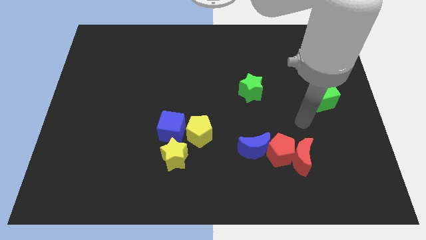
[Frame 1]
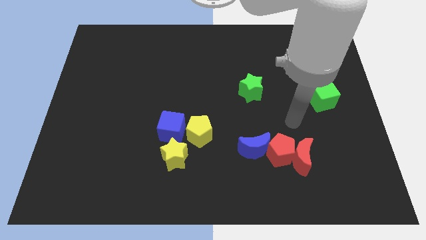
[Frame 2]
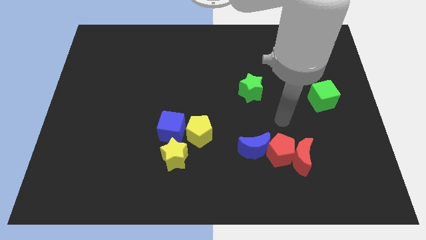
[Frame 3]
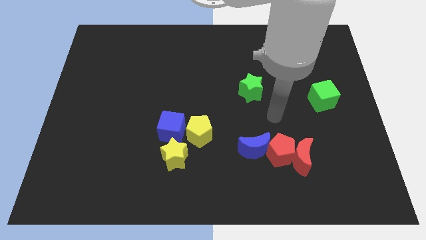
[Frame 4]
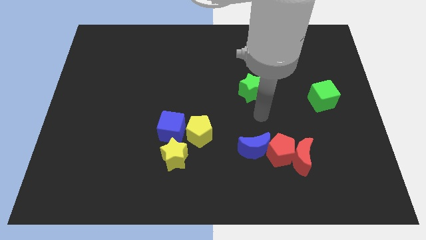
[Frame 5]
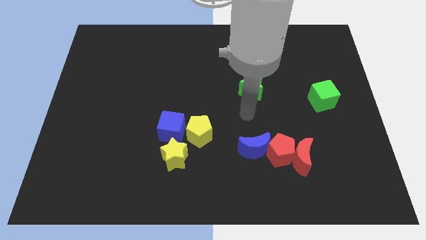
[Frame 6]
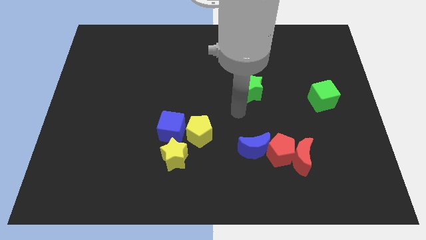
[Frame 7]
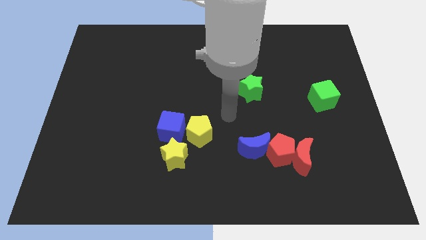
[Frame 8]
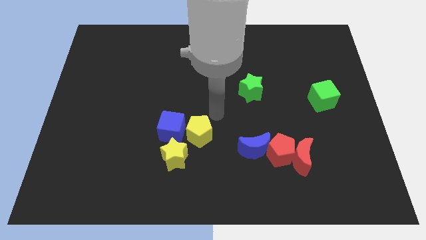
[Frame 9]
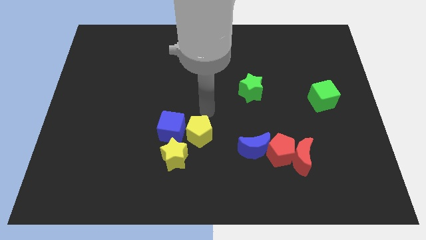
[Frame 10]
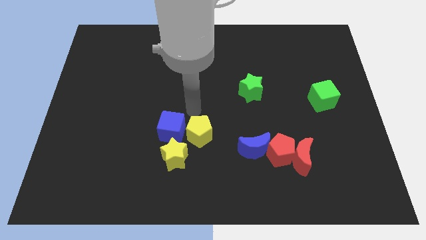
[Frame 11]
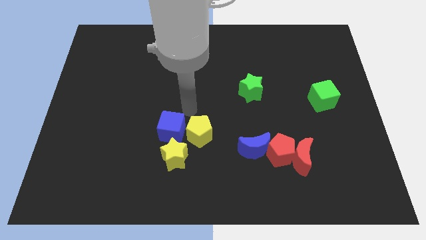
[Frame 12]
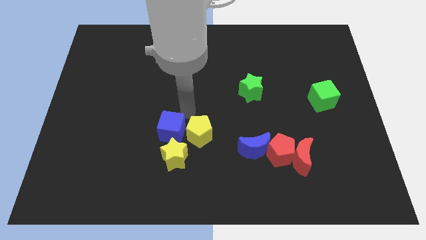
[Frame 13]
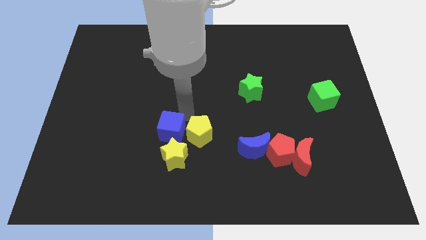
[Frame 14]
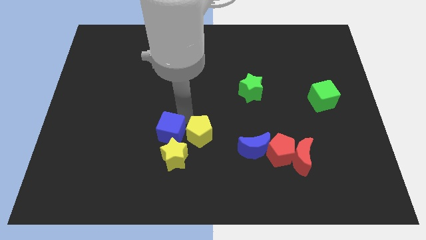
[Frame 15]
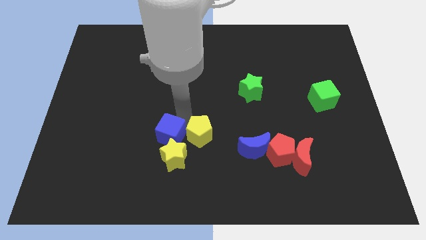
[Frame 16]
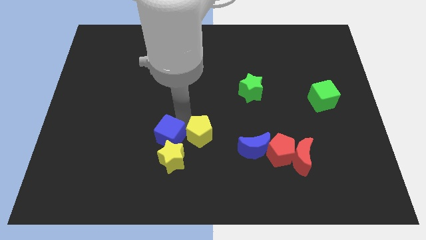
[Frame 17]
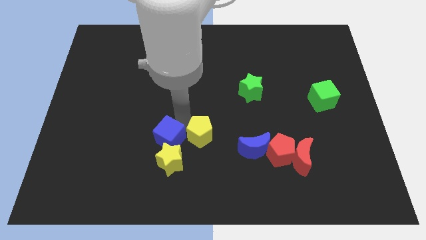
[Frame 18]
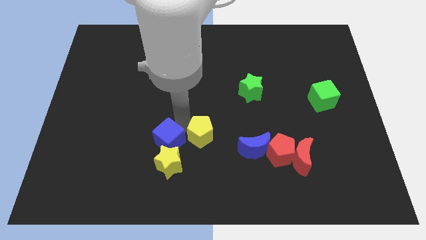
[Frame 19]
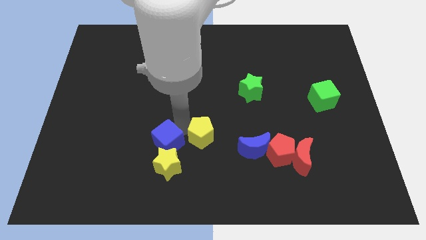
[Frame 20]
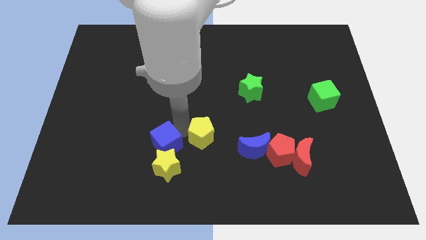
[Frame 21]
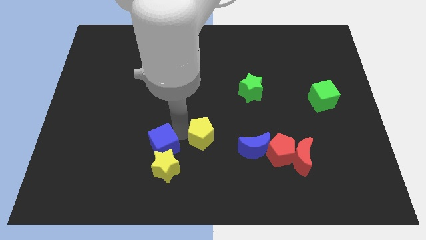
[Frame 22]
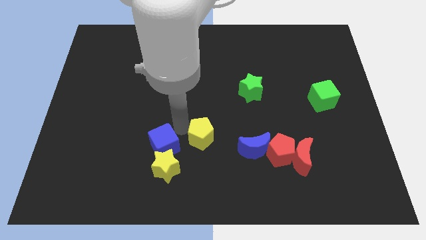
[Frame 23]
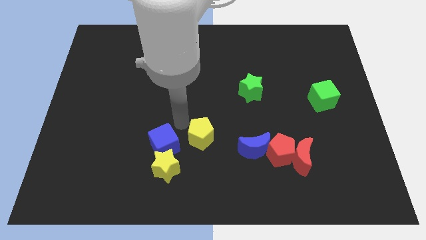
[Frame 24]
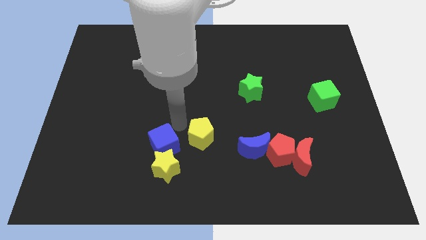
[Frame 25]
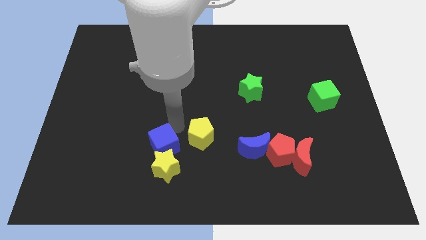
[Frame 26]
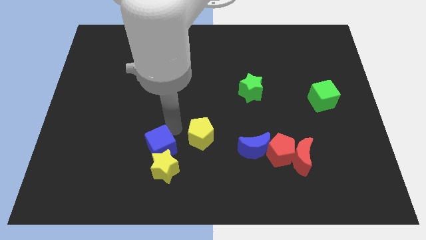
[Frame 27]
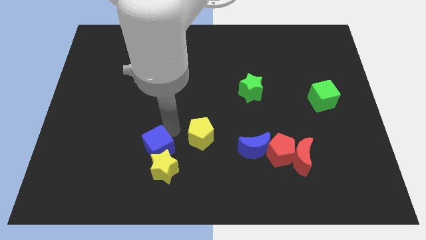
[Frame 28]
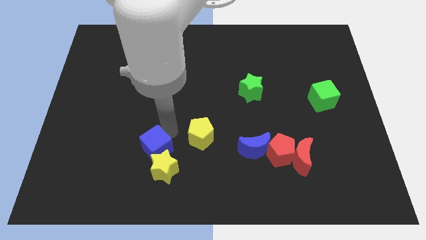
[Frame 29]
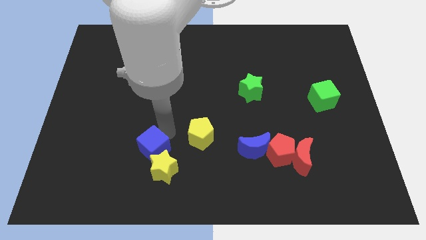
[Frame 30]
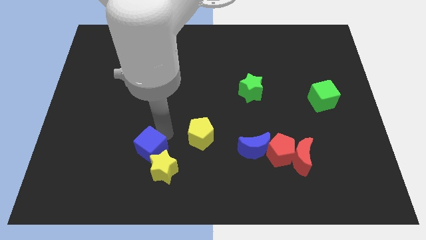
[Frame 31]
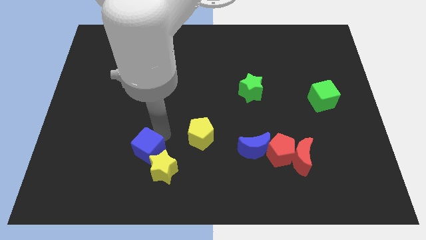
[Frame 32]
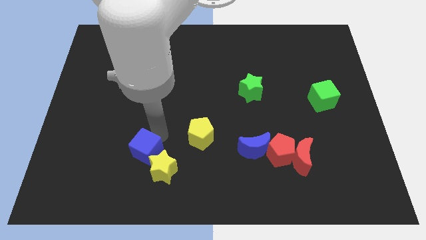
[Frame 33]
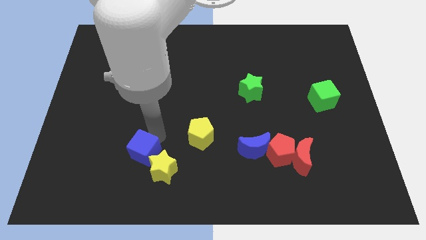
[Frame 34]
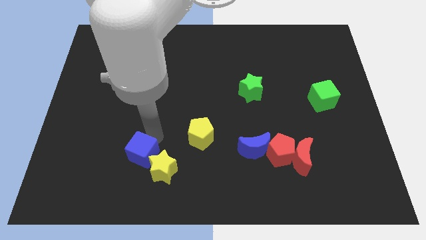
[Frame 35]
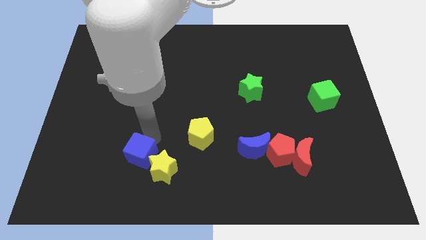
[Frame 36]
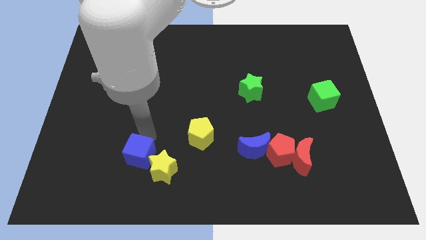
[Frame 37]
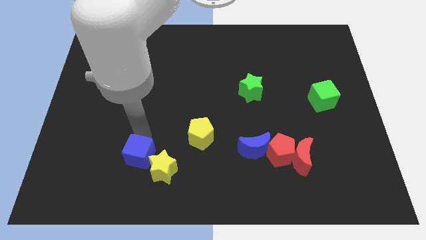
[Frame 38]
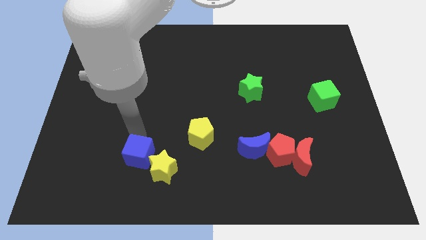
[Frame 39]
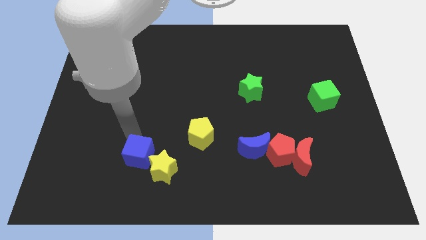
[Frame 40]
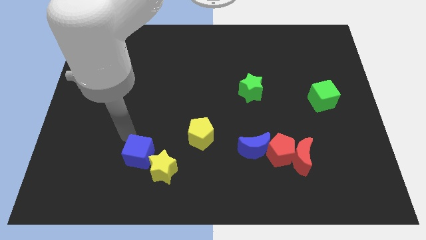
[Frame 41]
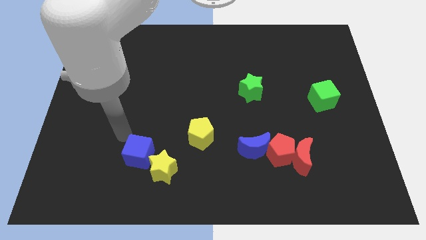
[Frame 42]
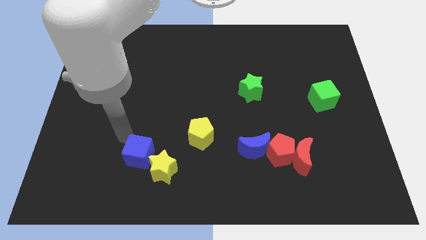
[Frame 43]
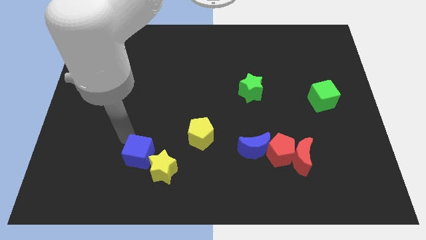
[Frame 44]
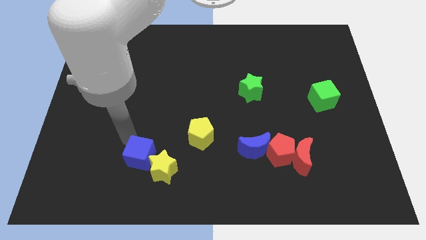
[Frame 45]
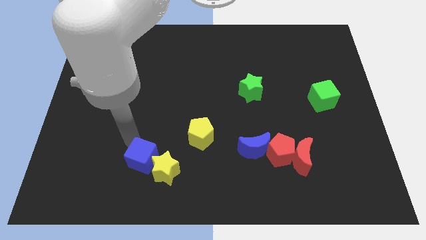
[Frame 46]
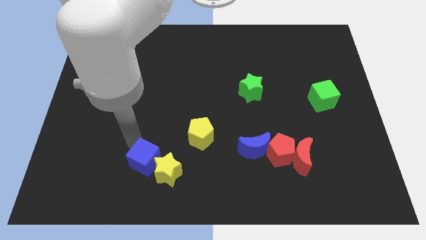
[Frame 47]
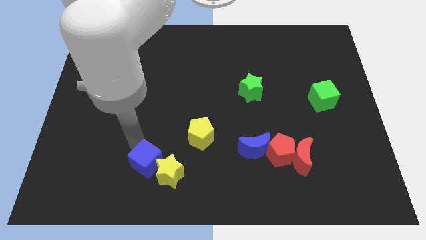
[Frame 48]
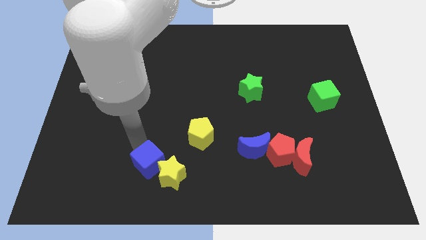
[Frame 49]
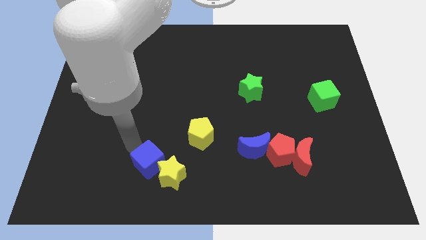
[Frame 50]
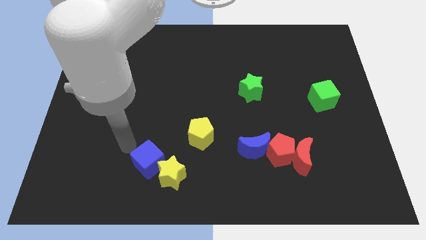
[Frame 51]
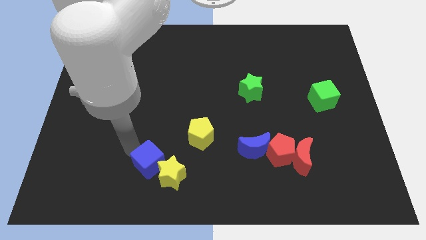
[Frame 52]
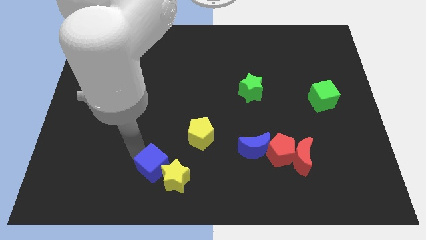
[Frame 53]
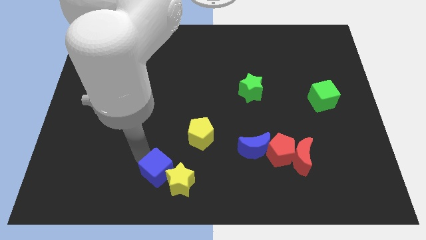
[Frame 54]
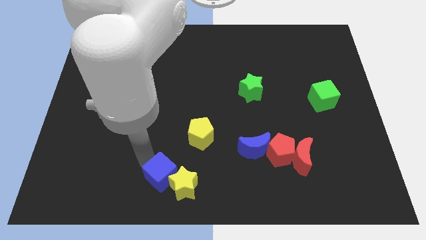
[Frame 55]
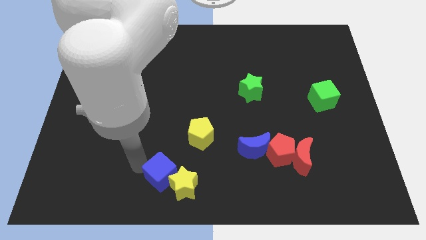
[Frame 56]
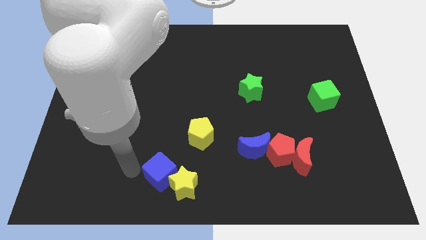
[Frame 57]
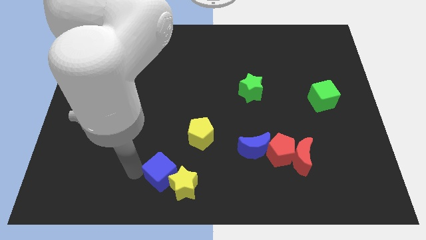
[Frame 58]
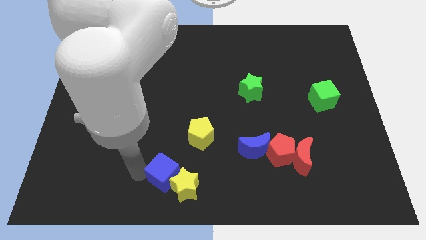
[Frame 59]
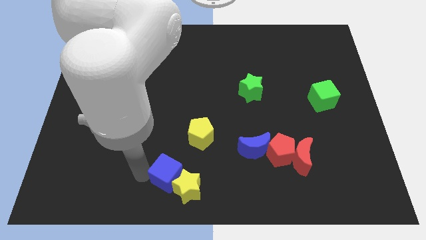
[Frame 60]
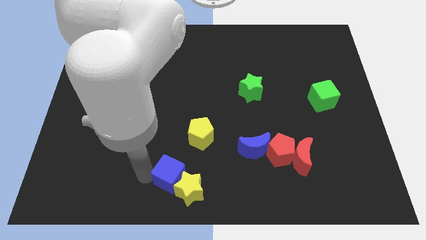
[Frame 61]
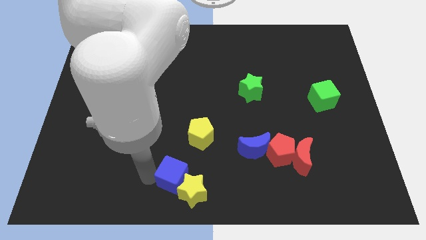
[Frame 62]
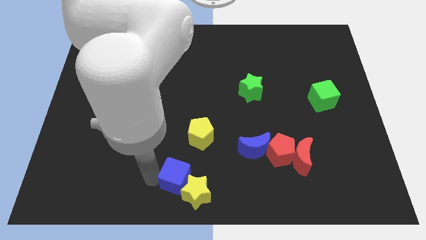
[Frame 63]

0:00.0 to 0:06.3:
move the blue cube to the bottom side of the yellow pentagon

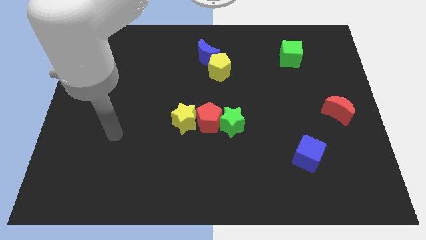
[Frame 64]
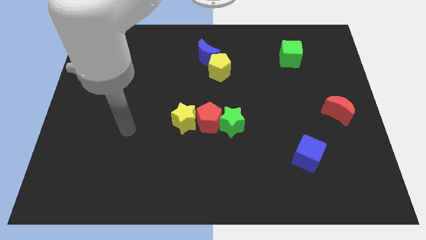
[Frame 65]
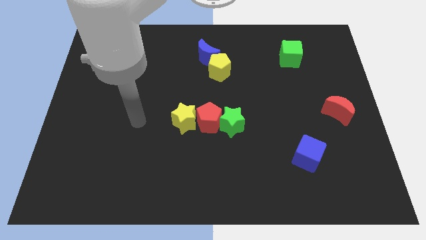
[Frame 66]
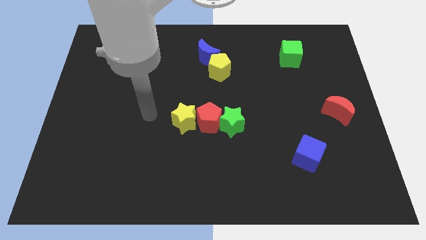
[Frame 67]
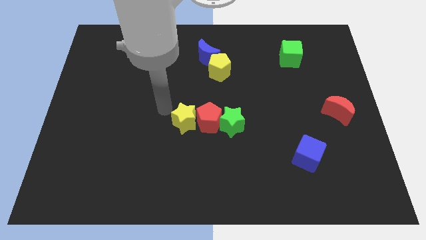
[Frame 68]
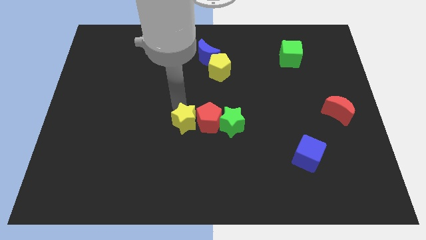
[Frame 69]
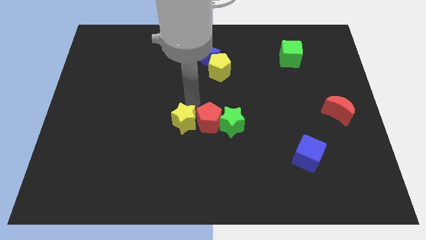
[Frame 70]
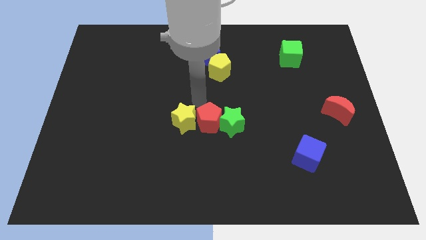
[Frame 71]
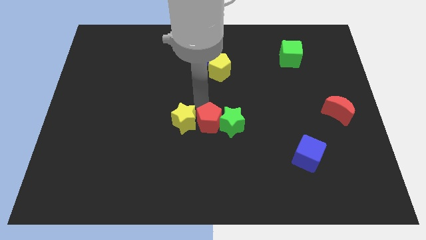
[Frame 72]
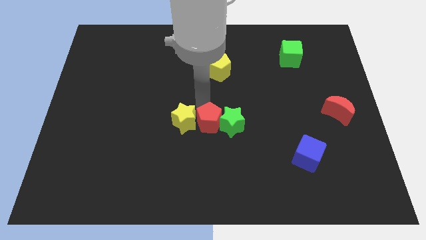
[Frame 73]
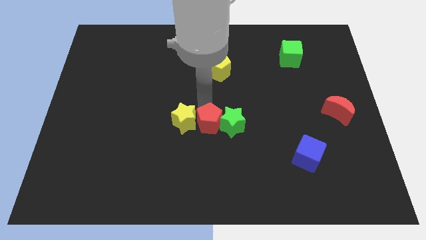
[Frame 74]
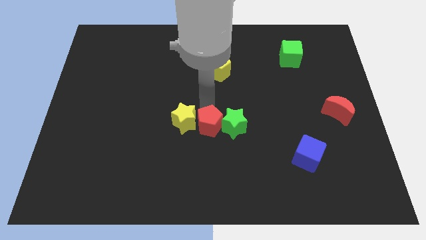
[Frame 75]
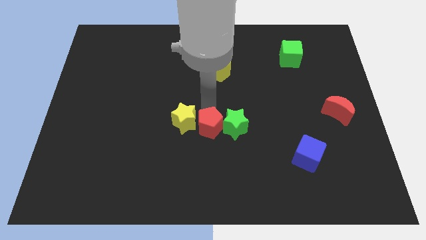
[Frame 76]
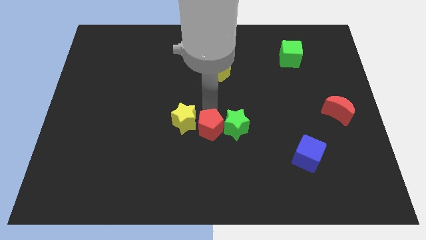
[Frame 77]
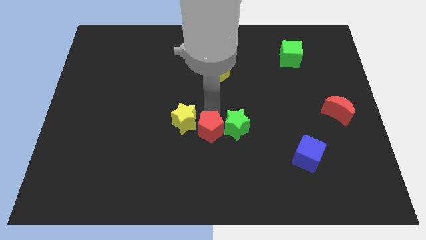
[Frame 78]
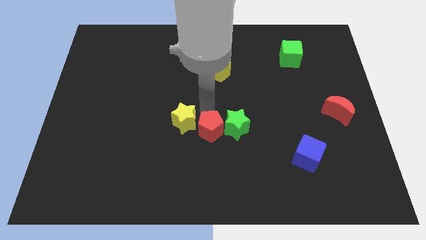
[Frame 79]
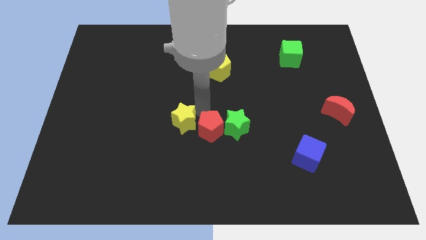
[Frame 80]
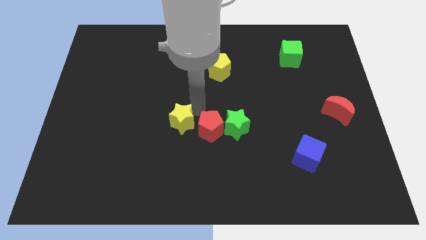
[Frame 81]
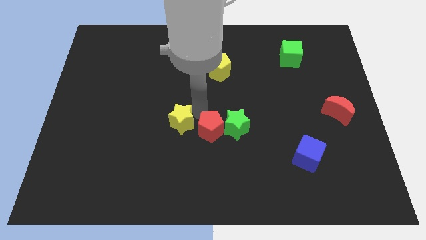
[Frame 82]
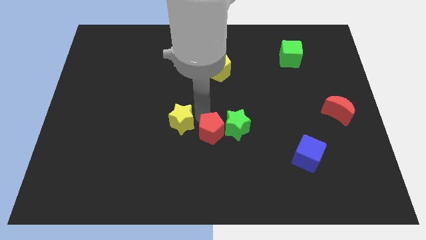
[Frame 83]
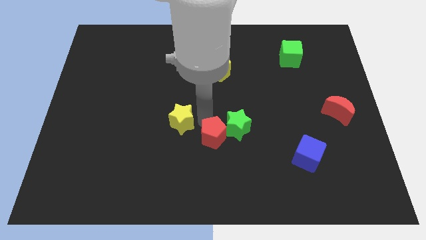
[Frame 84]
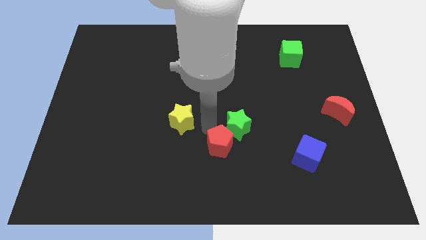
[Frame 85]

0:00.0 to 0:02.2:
push the red pentagon to the bottom side of the green star
